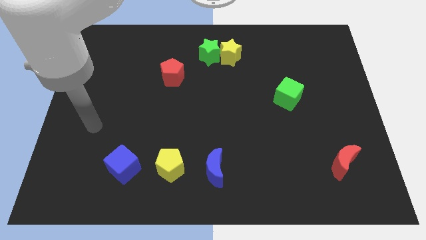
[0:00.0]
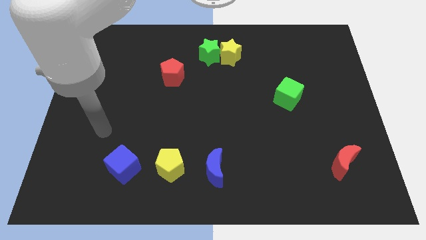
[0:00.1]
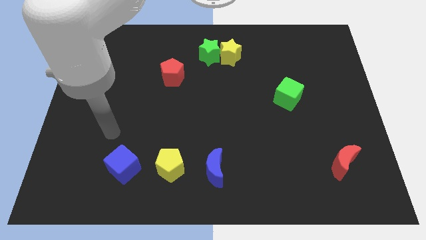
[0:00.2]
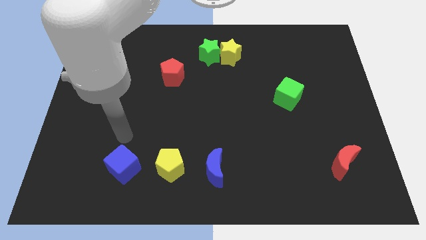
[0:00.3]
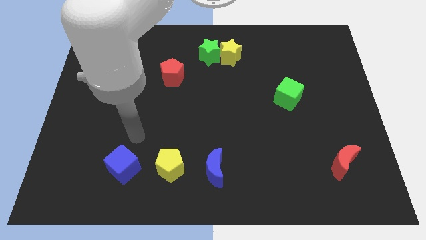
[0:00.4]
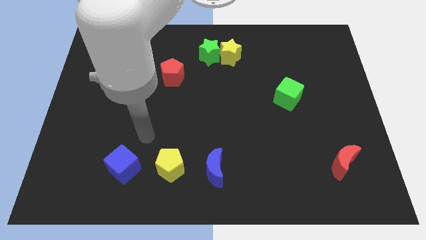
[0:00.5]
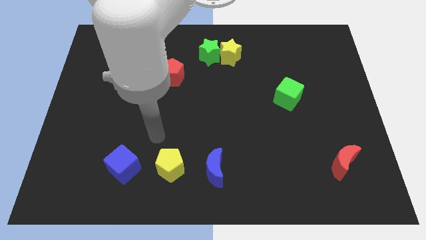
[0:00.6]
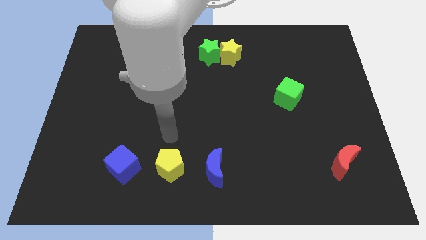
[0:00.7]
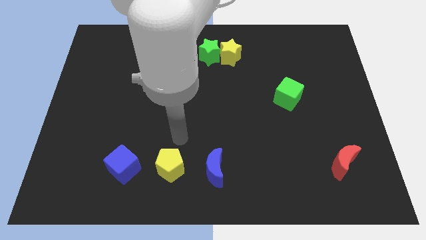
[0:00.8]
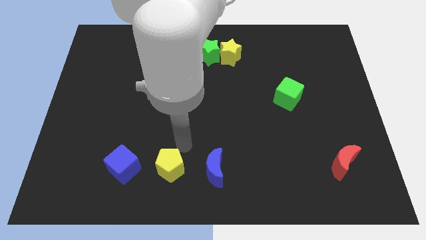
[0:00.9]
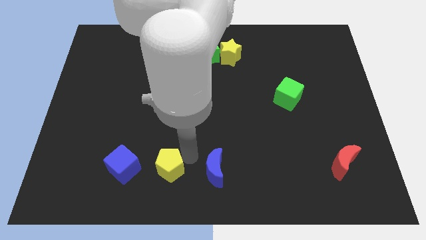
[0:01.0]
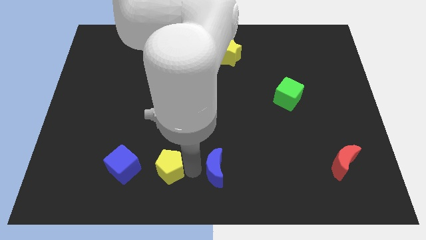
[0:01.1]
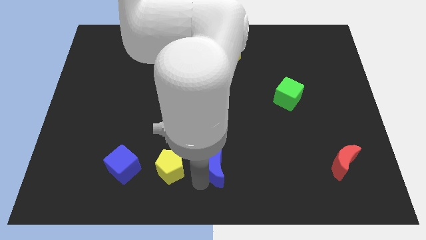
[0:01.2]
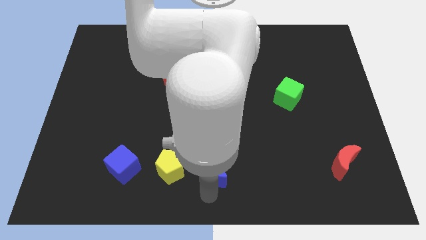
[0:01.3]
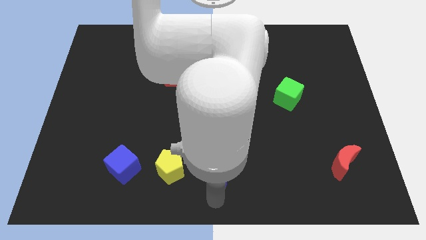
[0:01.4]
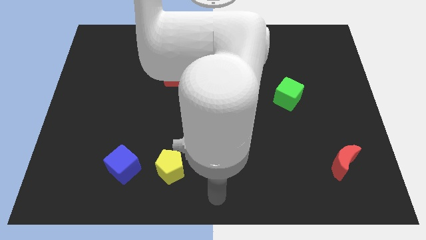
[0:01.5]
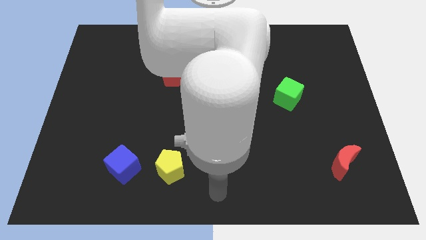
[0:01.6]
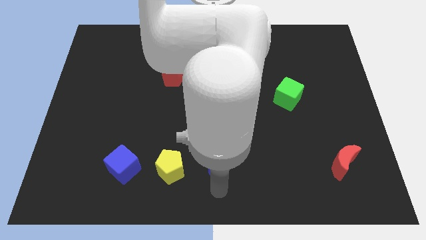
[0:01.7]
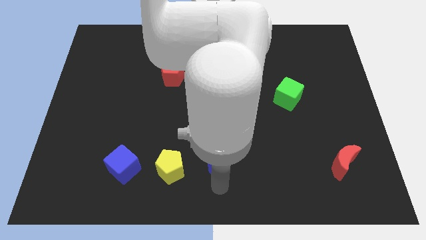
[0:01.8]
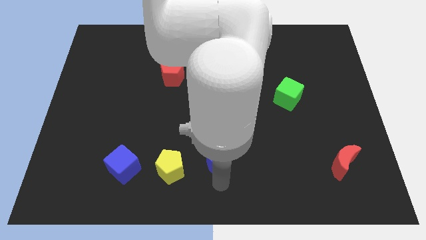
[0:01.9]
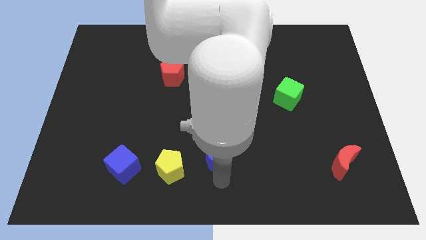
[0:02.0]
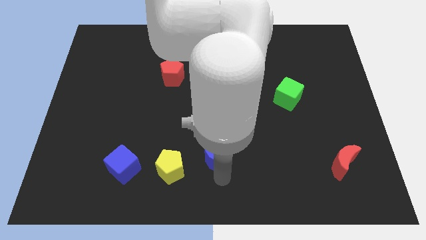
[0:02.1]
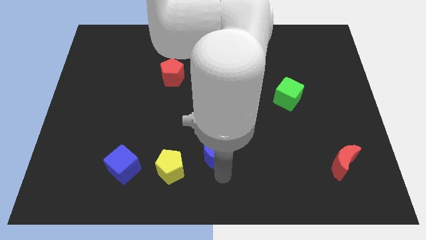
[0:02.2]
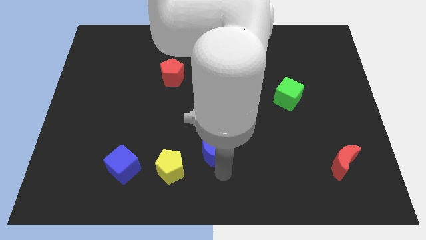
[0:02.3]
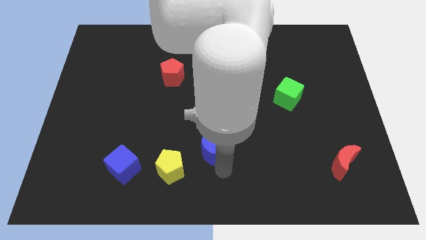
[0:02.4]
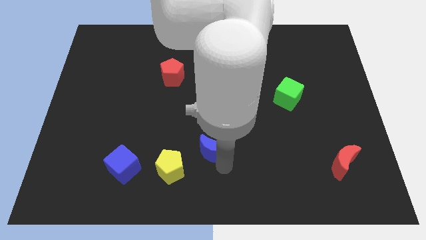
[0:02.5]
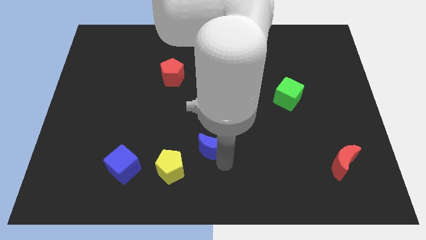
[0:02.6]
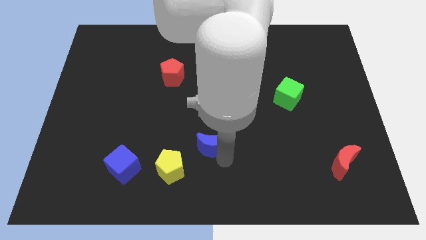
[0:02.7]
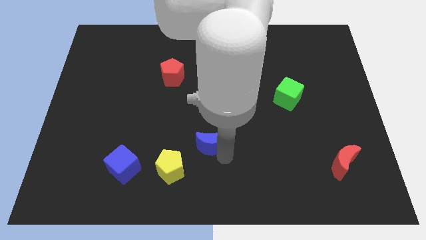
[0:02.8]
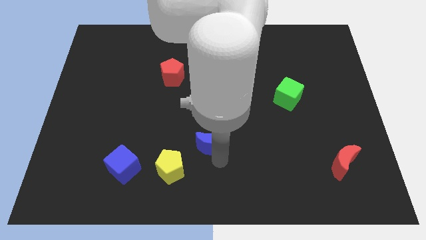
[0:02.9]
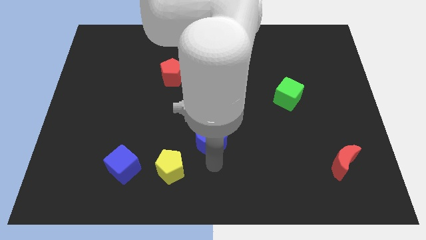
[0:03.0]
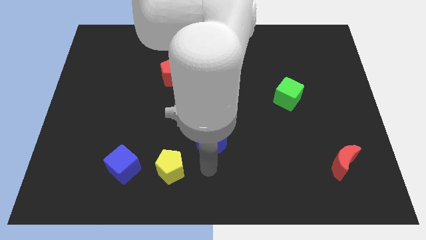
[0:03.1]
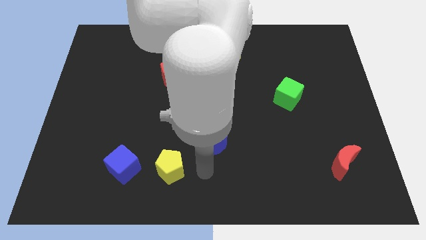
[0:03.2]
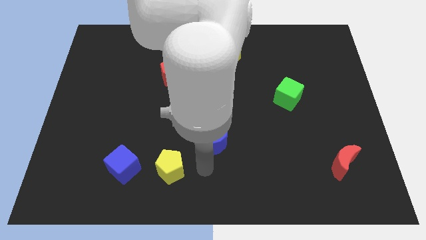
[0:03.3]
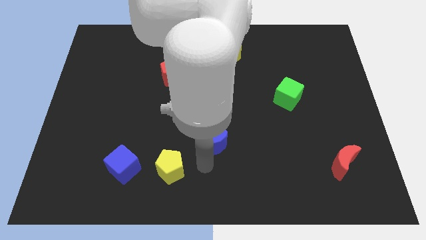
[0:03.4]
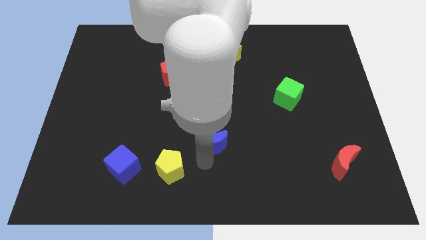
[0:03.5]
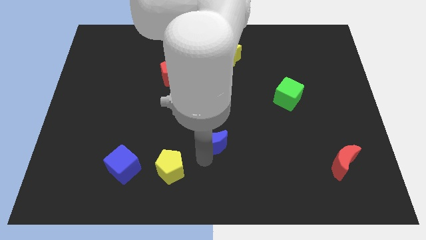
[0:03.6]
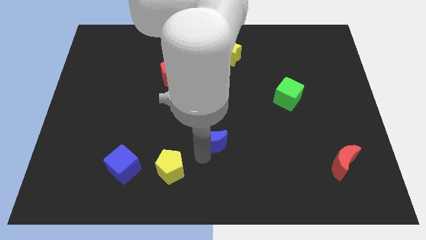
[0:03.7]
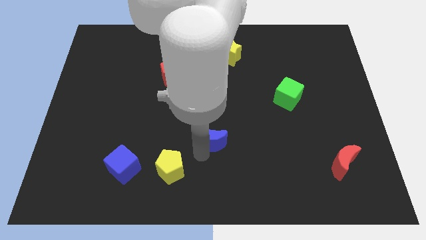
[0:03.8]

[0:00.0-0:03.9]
push the blue moon upwards slightly

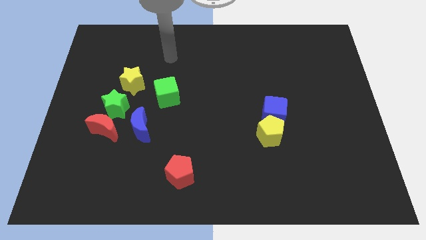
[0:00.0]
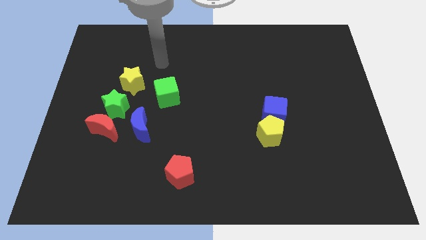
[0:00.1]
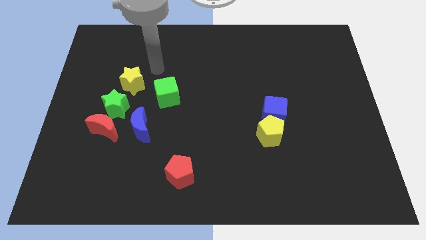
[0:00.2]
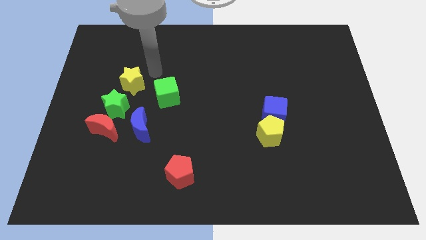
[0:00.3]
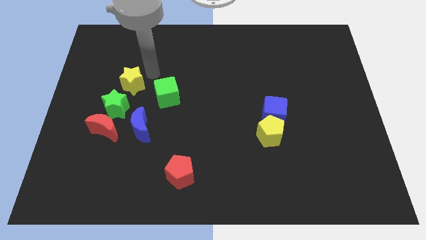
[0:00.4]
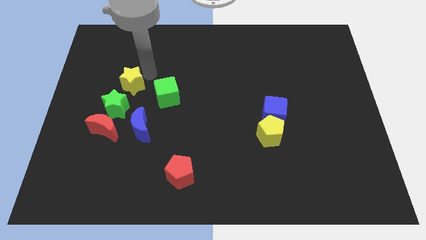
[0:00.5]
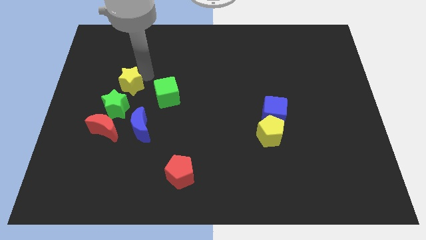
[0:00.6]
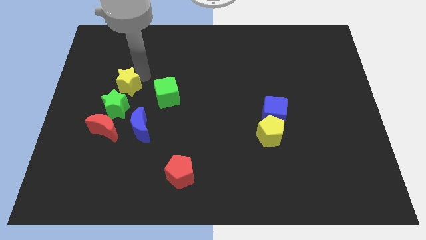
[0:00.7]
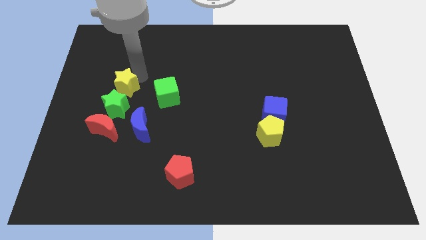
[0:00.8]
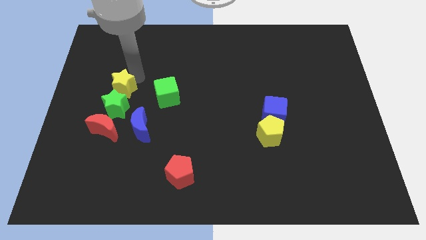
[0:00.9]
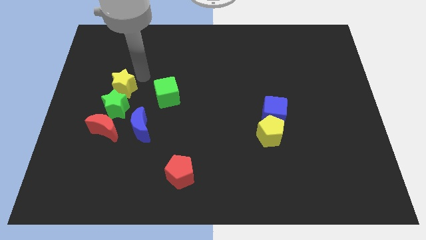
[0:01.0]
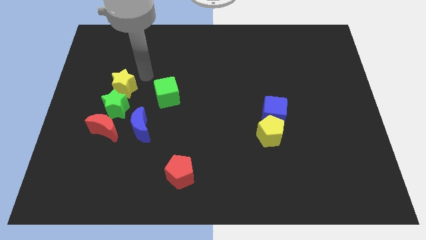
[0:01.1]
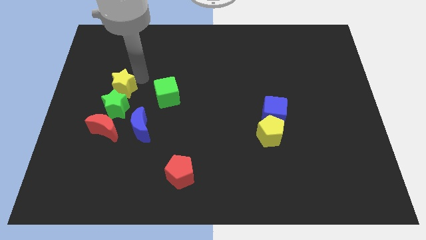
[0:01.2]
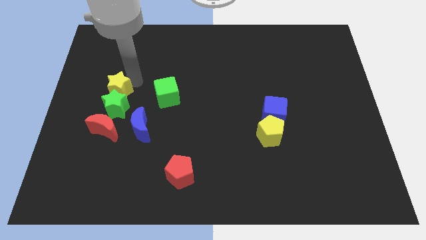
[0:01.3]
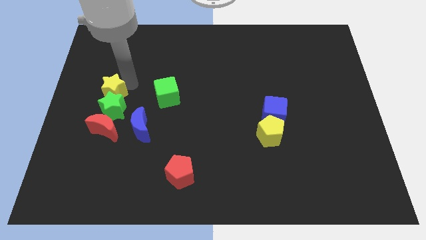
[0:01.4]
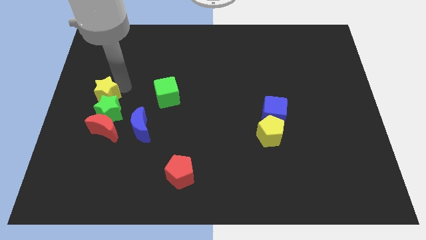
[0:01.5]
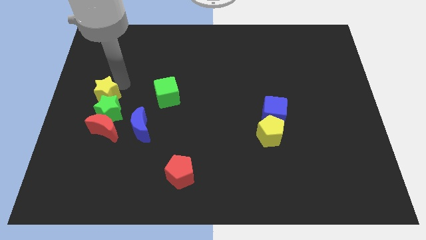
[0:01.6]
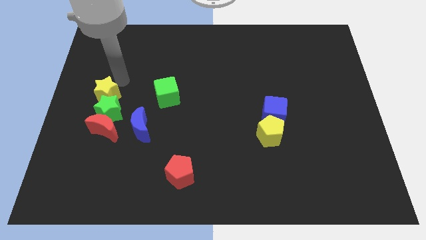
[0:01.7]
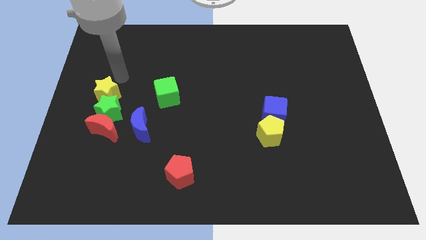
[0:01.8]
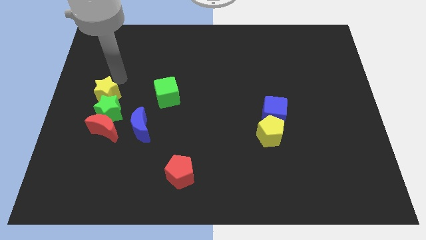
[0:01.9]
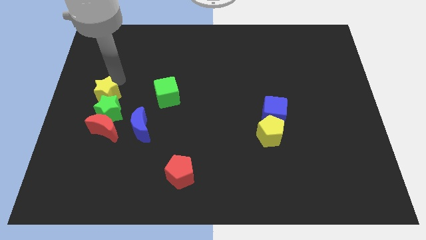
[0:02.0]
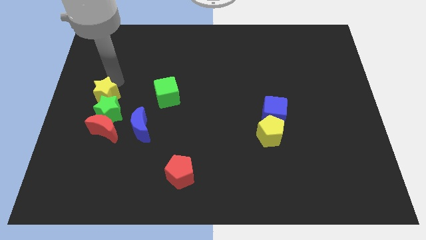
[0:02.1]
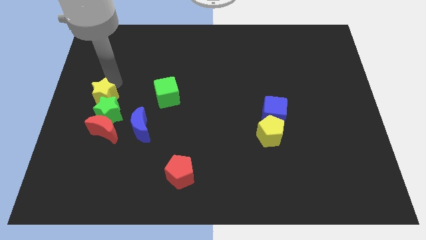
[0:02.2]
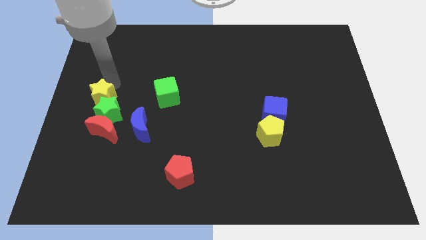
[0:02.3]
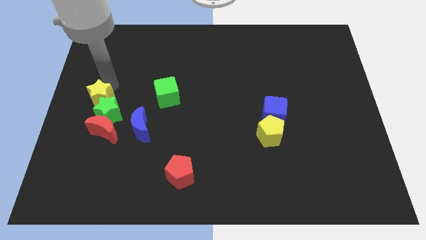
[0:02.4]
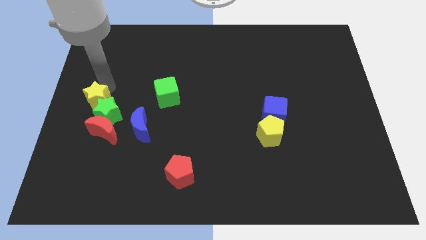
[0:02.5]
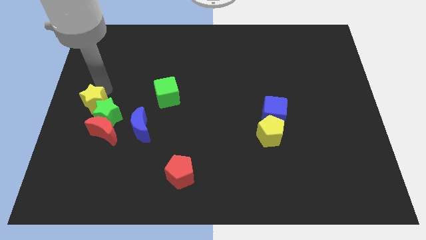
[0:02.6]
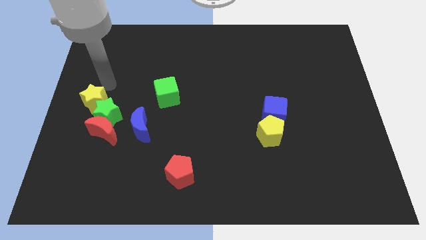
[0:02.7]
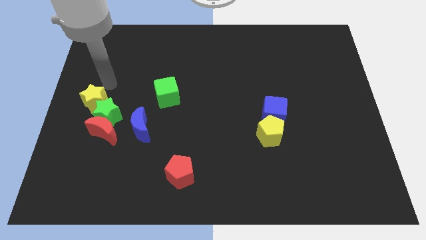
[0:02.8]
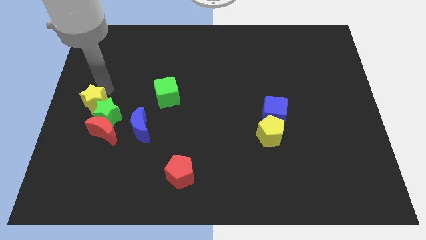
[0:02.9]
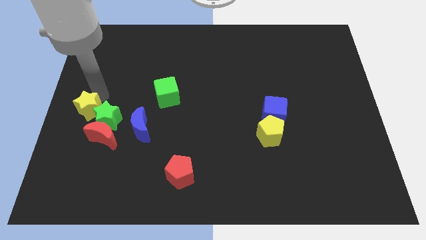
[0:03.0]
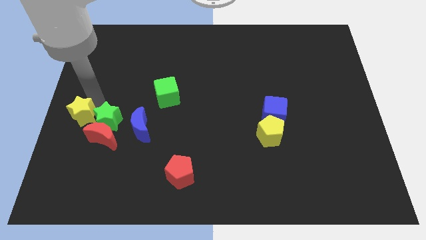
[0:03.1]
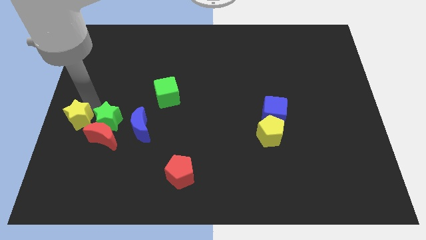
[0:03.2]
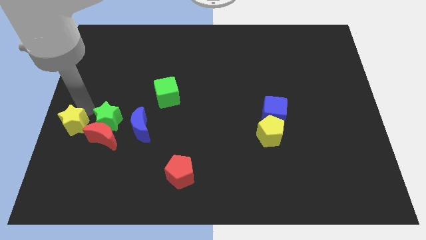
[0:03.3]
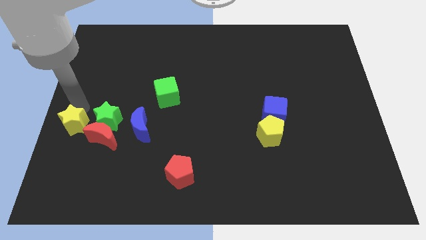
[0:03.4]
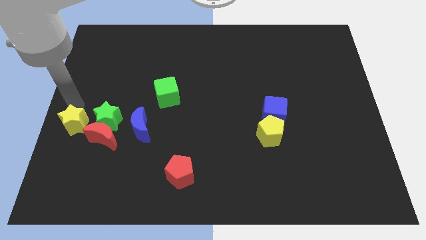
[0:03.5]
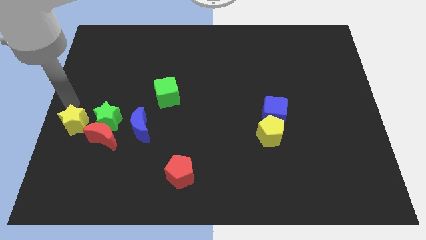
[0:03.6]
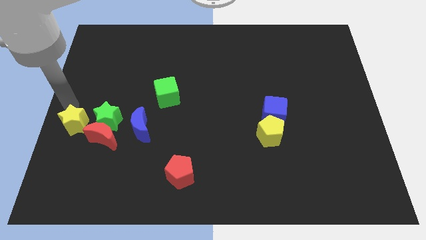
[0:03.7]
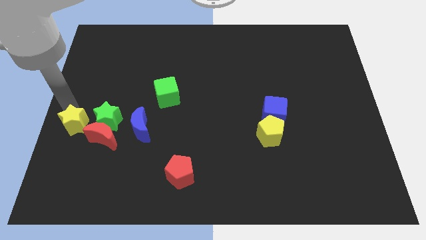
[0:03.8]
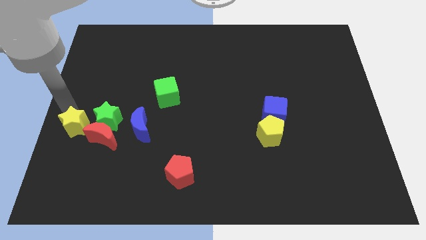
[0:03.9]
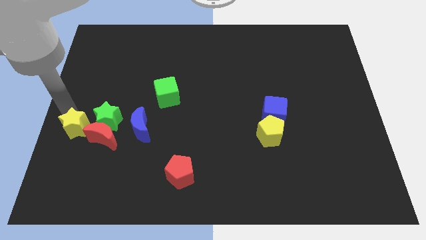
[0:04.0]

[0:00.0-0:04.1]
slide the yellow star downwards a bit
